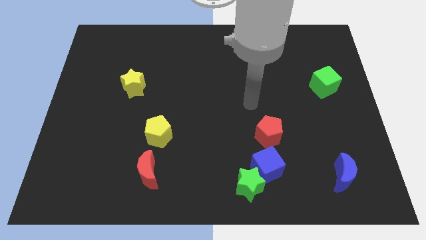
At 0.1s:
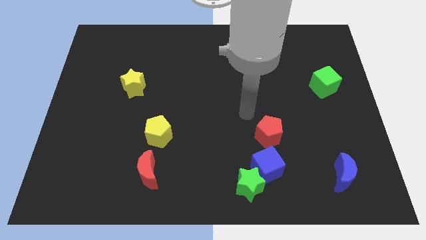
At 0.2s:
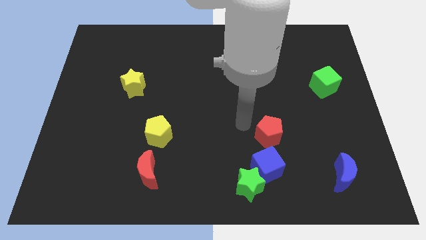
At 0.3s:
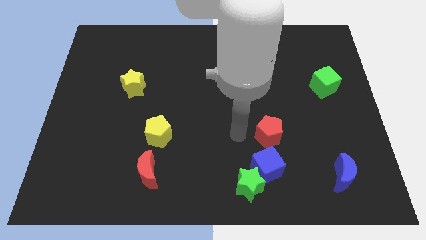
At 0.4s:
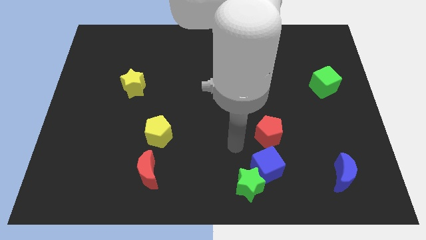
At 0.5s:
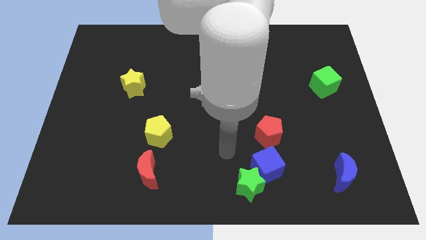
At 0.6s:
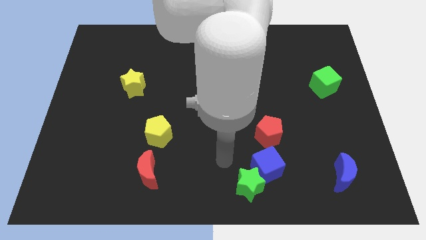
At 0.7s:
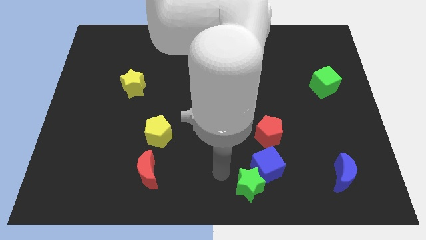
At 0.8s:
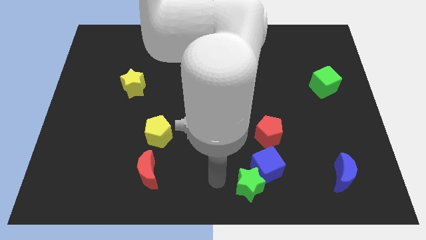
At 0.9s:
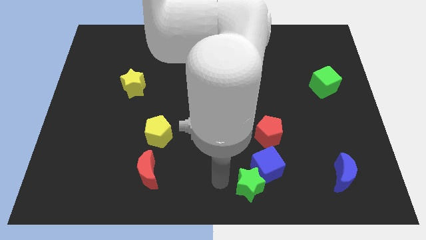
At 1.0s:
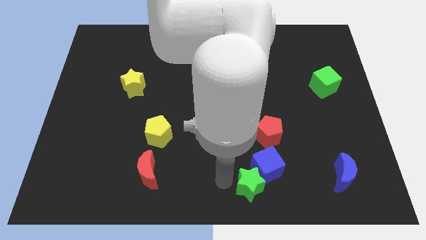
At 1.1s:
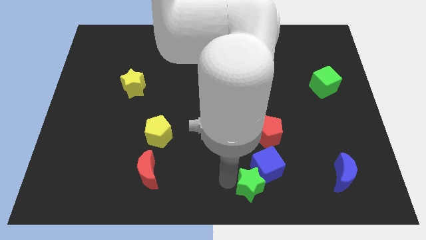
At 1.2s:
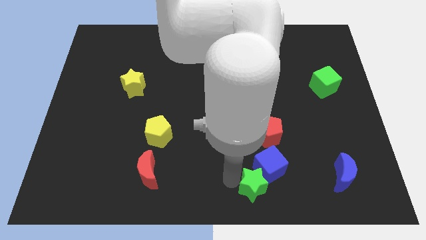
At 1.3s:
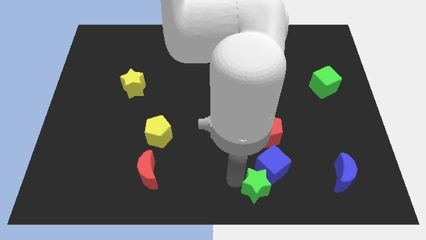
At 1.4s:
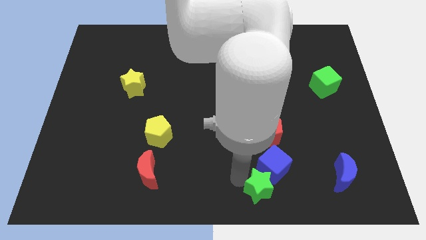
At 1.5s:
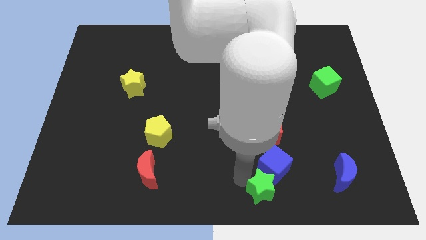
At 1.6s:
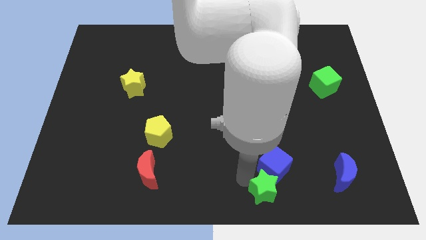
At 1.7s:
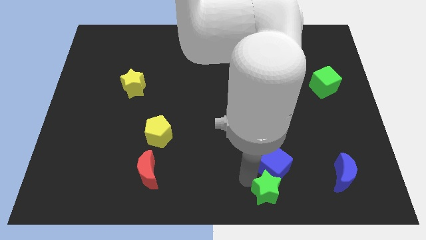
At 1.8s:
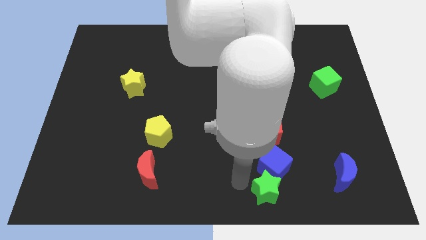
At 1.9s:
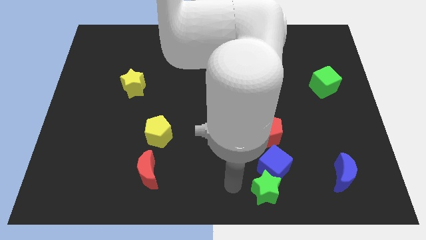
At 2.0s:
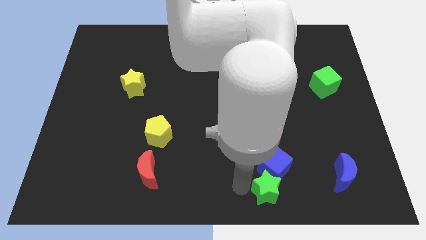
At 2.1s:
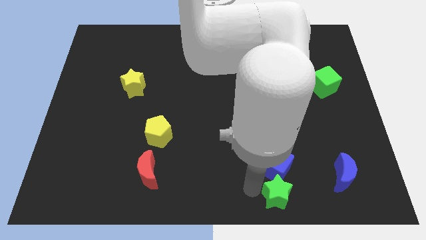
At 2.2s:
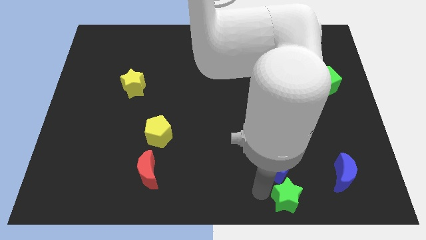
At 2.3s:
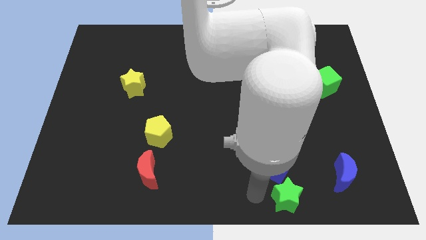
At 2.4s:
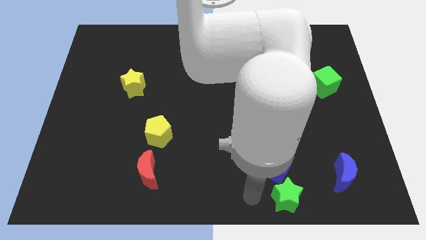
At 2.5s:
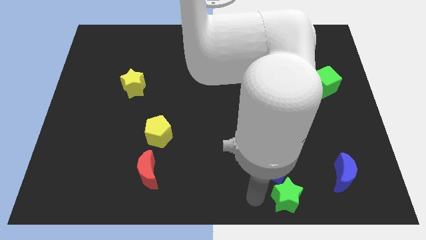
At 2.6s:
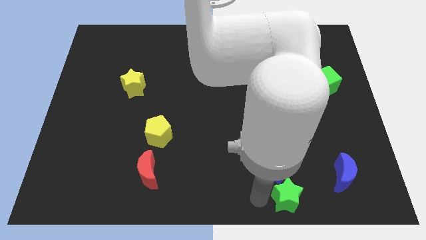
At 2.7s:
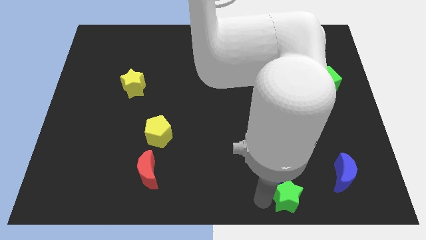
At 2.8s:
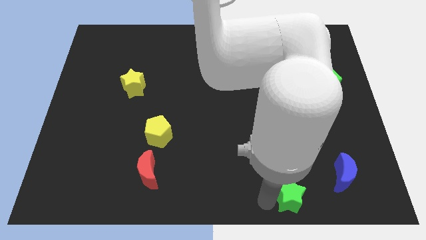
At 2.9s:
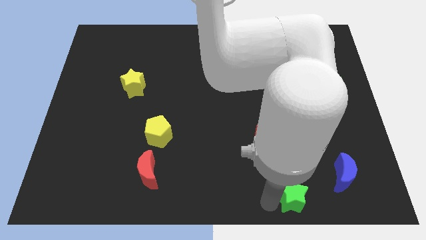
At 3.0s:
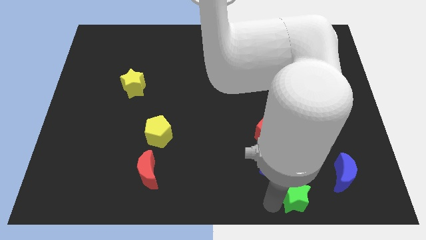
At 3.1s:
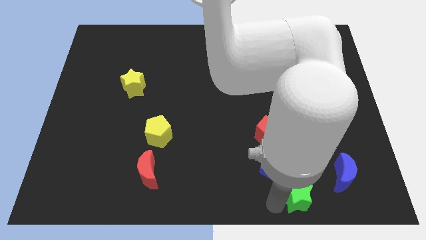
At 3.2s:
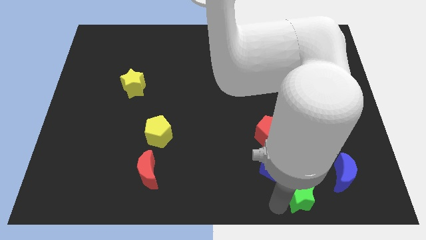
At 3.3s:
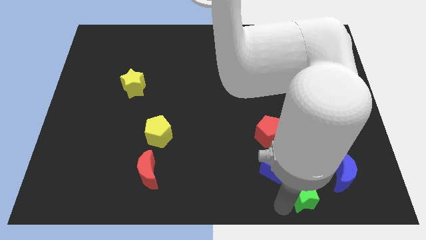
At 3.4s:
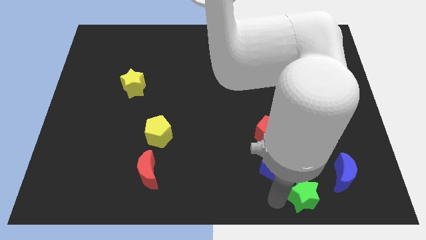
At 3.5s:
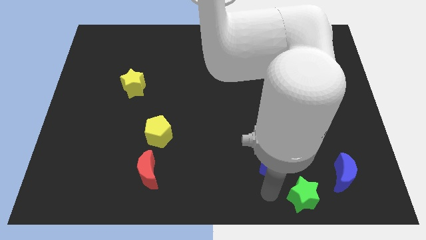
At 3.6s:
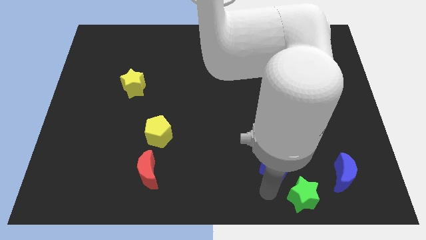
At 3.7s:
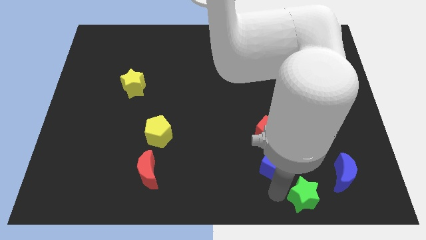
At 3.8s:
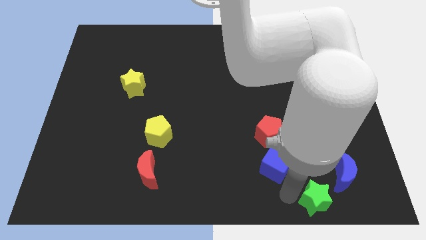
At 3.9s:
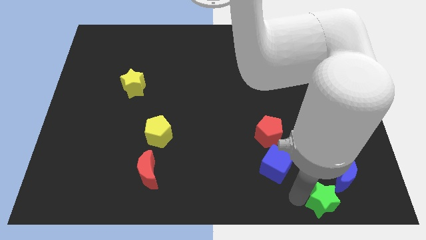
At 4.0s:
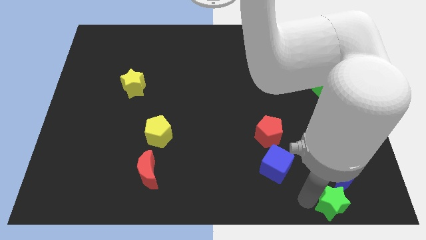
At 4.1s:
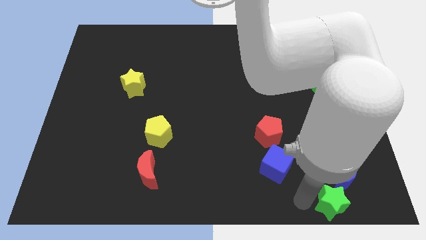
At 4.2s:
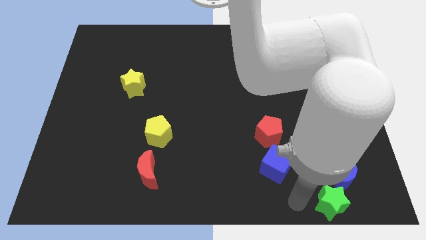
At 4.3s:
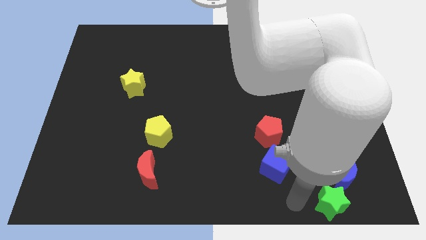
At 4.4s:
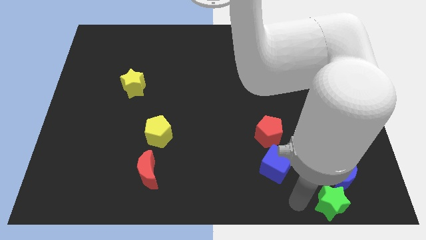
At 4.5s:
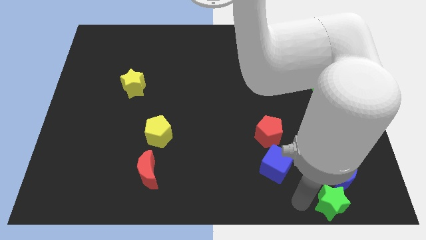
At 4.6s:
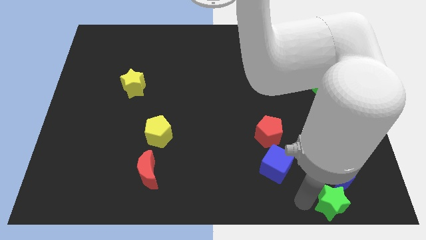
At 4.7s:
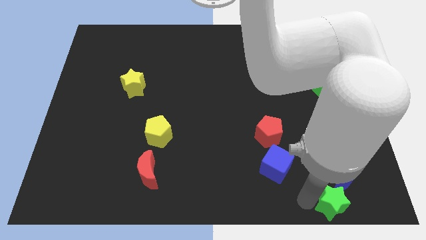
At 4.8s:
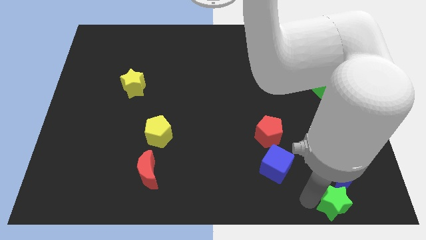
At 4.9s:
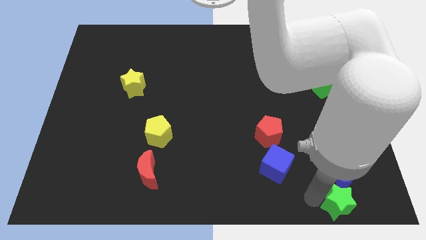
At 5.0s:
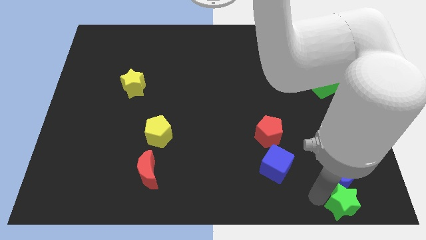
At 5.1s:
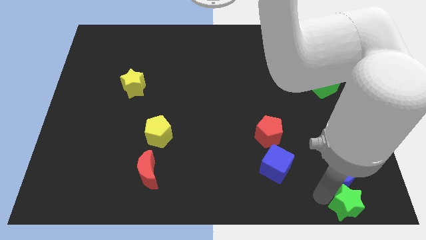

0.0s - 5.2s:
slide the green star to the lower right corner

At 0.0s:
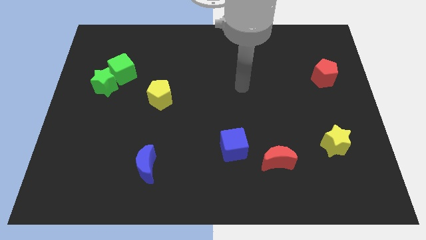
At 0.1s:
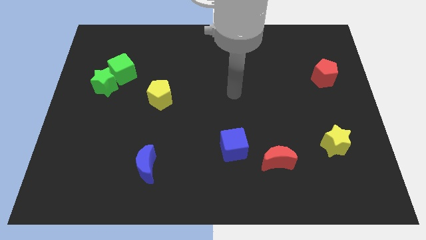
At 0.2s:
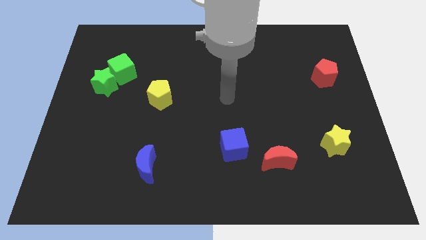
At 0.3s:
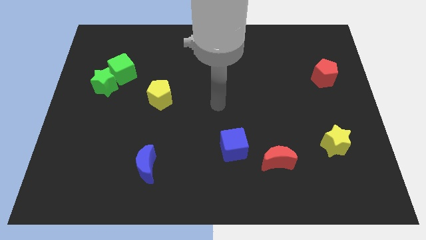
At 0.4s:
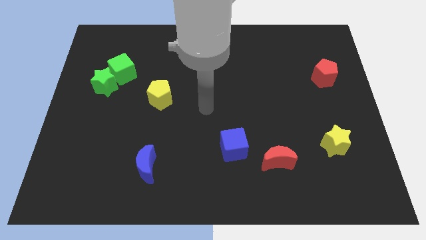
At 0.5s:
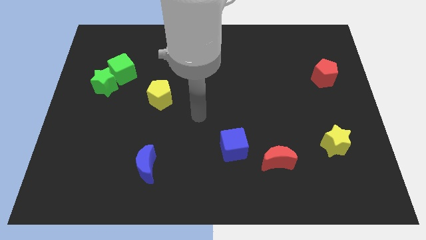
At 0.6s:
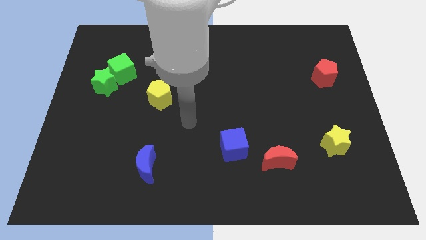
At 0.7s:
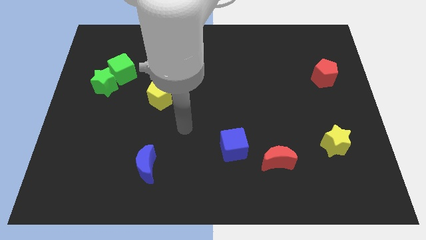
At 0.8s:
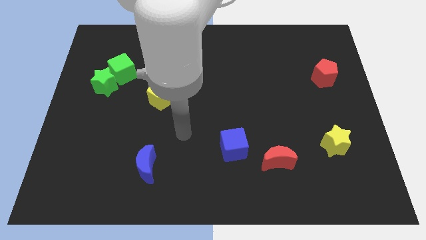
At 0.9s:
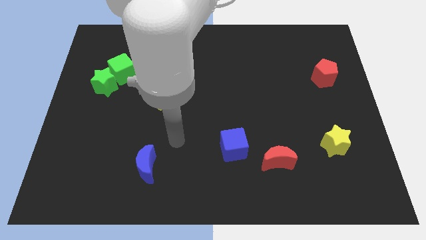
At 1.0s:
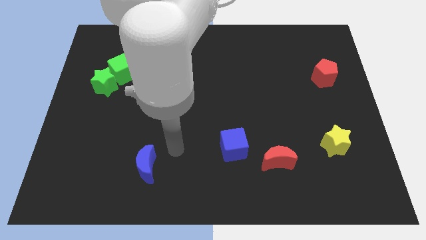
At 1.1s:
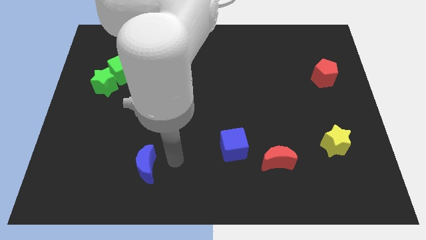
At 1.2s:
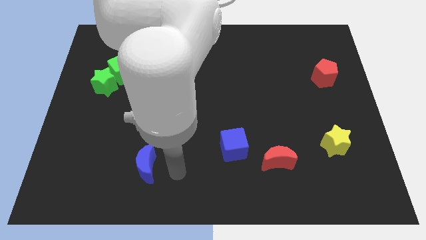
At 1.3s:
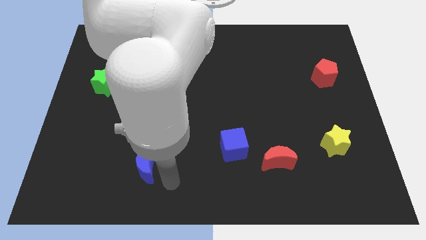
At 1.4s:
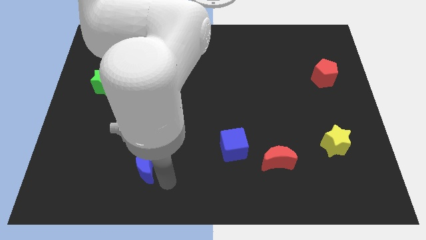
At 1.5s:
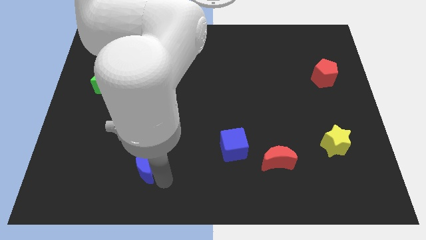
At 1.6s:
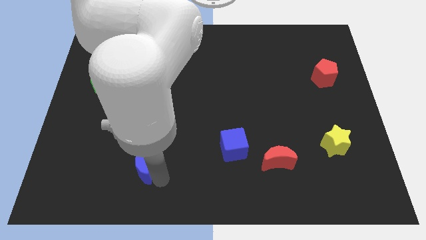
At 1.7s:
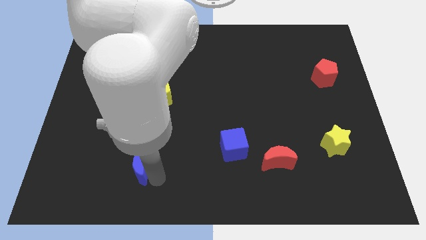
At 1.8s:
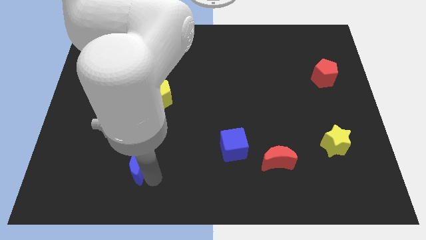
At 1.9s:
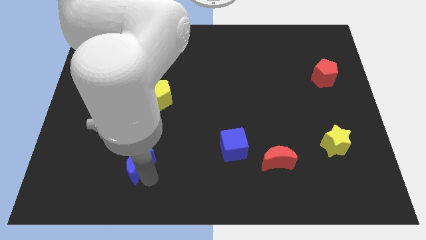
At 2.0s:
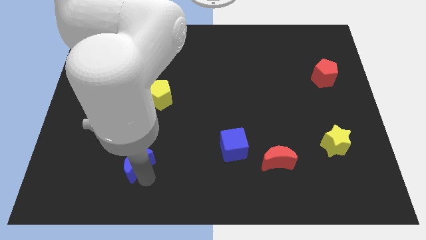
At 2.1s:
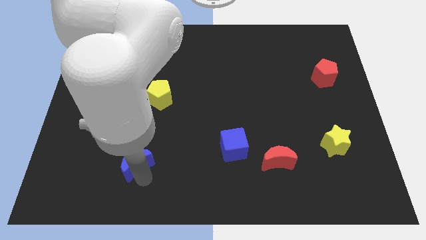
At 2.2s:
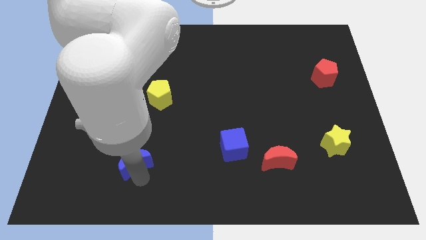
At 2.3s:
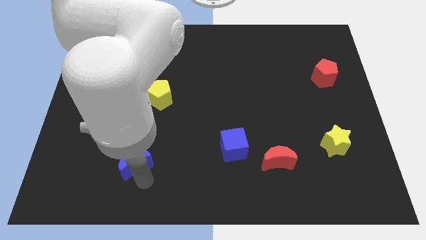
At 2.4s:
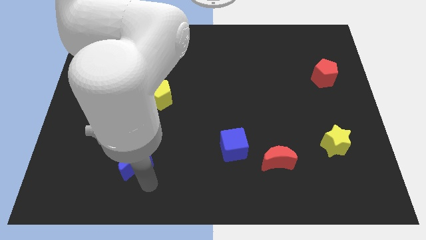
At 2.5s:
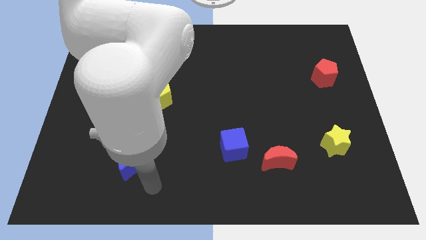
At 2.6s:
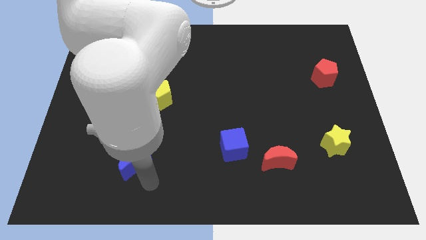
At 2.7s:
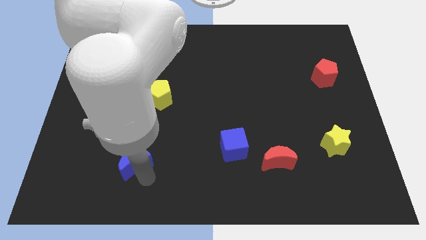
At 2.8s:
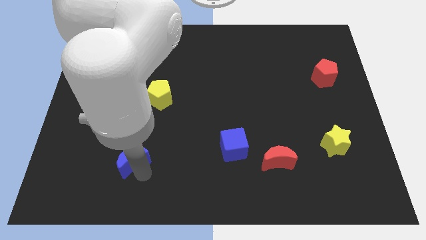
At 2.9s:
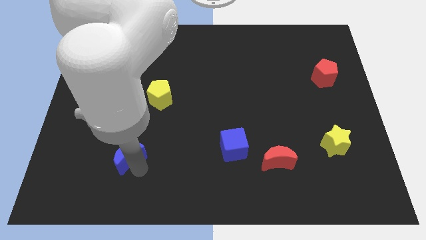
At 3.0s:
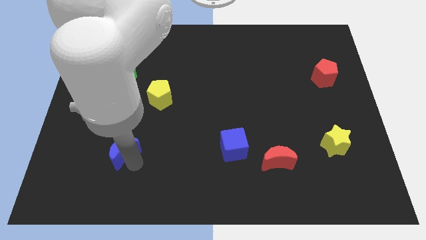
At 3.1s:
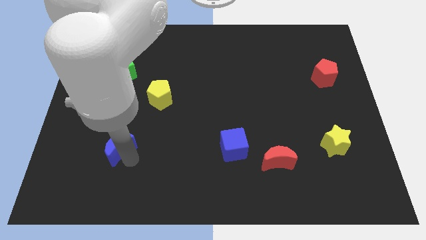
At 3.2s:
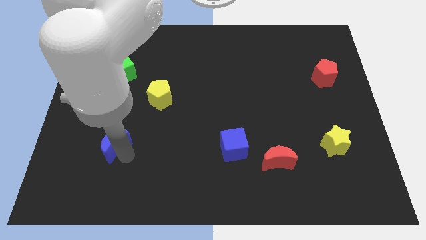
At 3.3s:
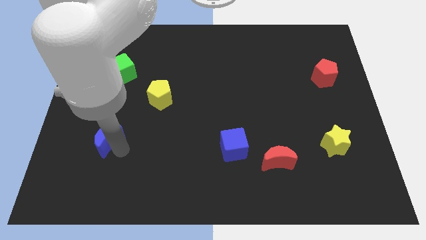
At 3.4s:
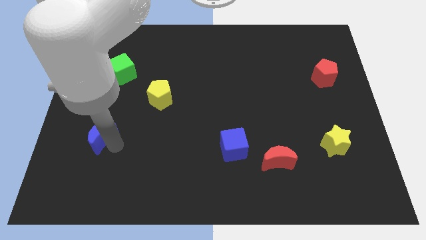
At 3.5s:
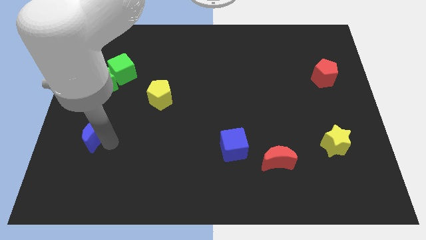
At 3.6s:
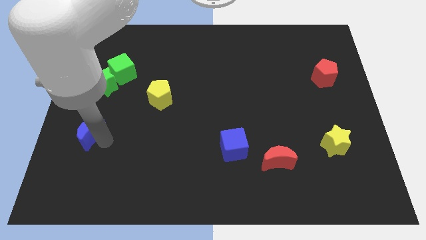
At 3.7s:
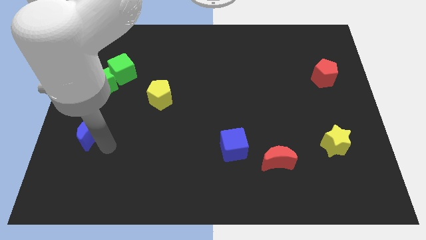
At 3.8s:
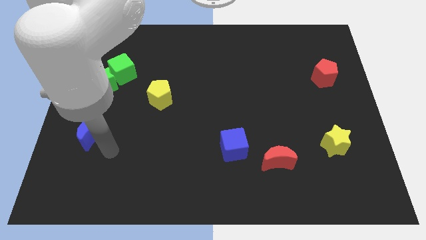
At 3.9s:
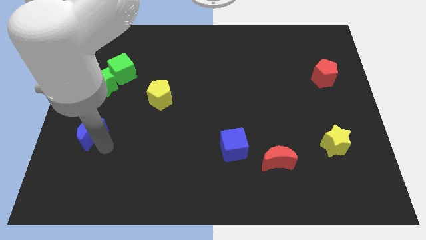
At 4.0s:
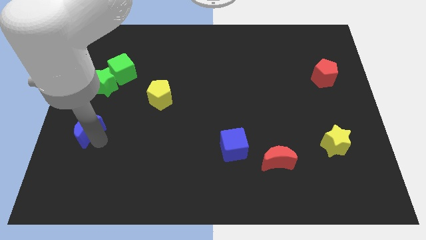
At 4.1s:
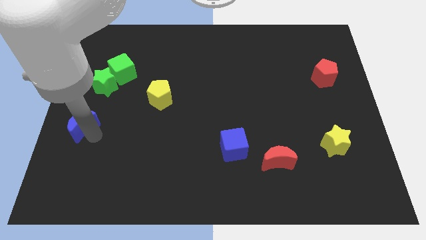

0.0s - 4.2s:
move the blue moon to the left side of the board
